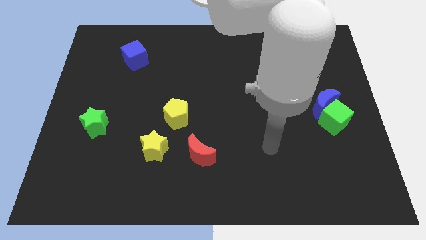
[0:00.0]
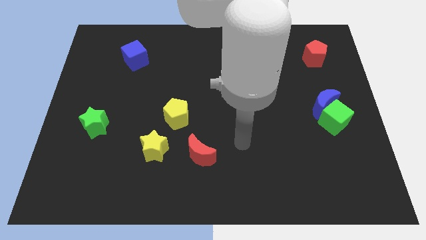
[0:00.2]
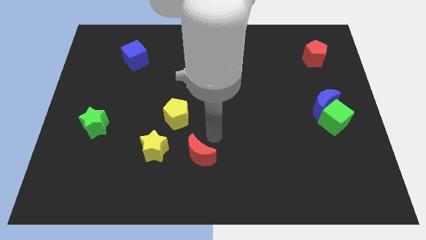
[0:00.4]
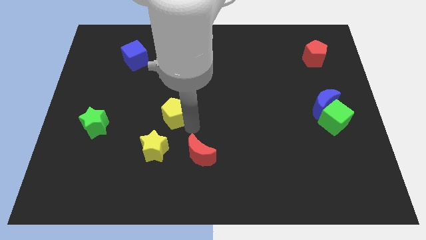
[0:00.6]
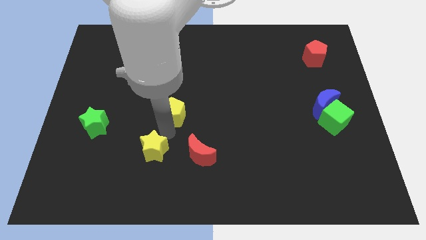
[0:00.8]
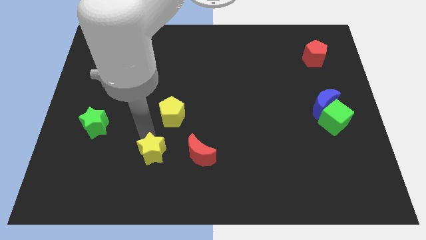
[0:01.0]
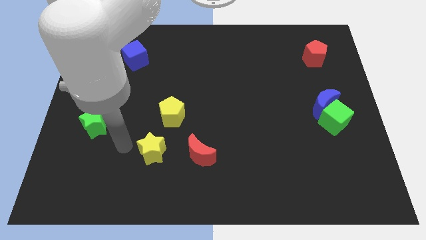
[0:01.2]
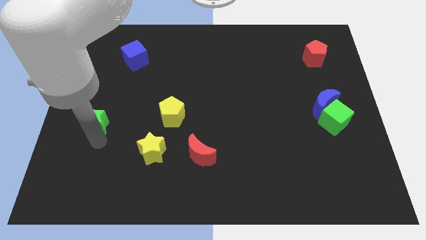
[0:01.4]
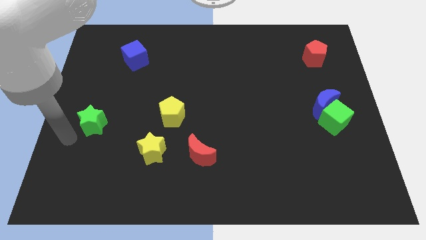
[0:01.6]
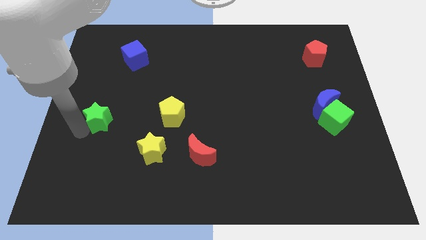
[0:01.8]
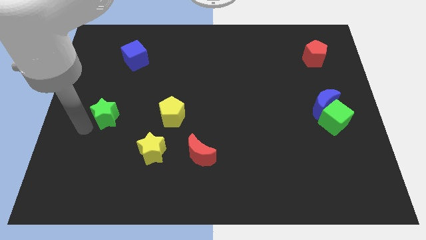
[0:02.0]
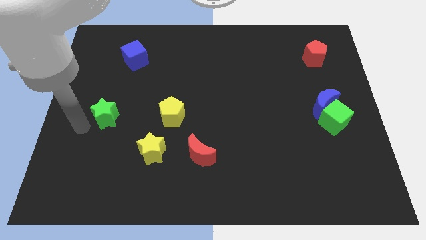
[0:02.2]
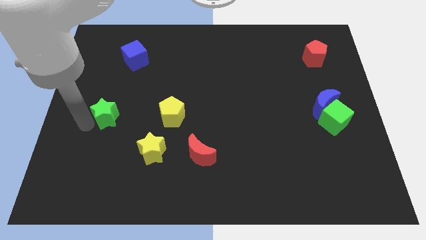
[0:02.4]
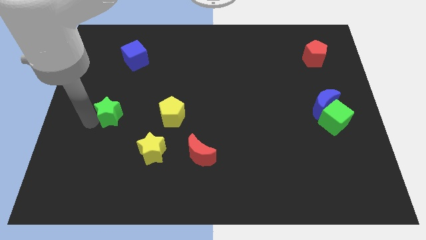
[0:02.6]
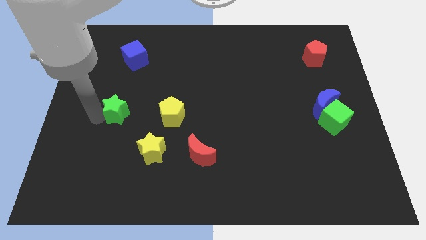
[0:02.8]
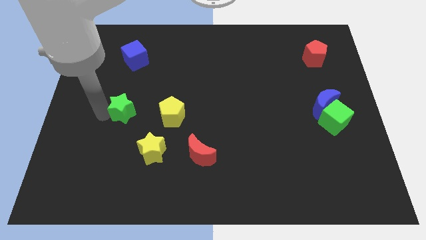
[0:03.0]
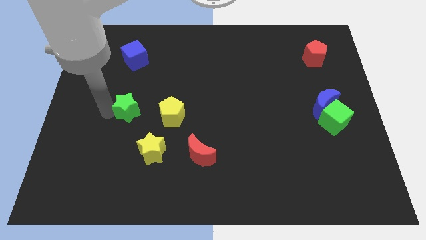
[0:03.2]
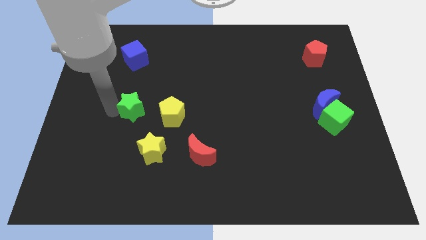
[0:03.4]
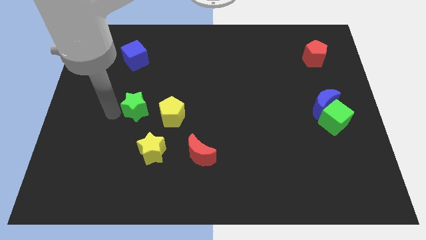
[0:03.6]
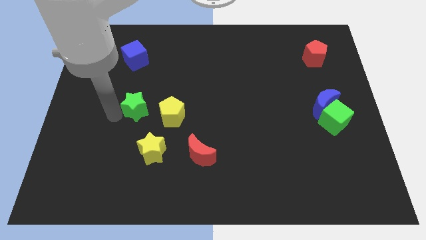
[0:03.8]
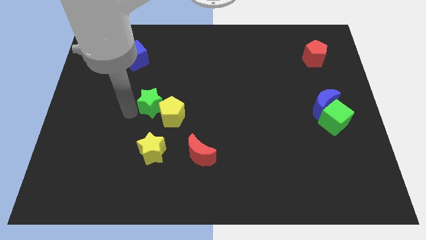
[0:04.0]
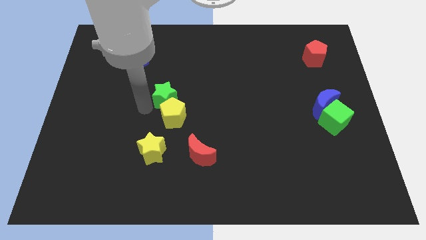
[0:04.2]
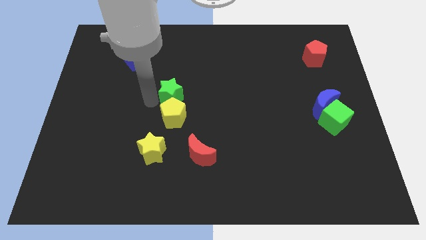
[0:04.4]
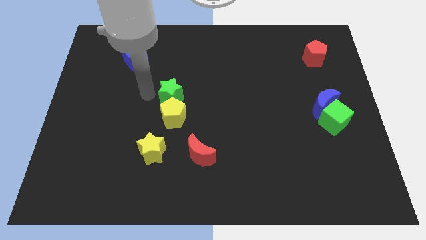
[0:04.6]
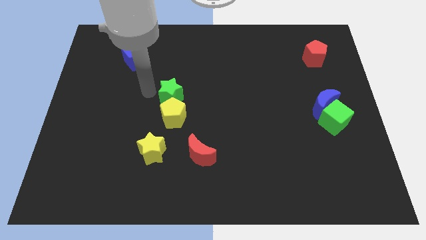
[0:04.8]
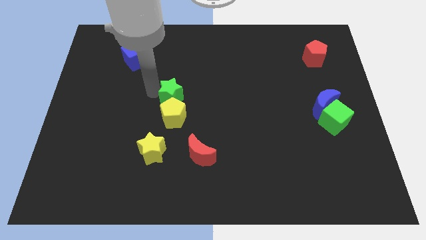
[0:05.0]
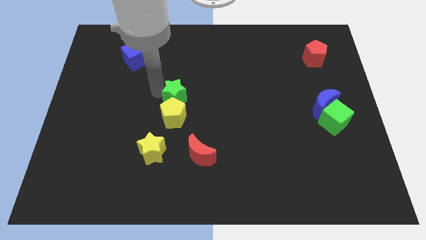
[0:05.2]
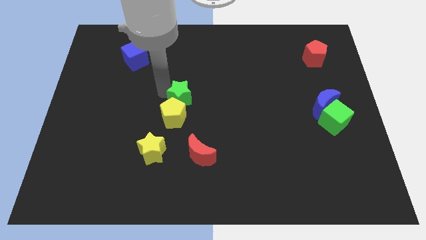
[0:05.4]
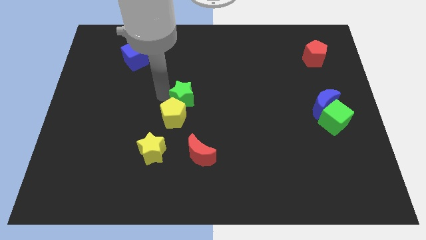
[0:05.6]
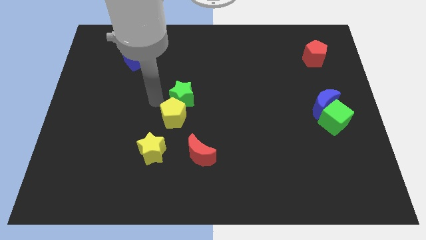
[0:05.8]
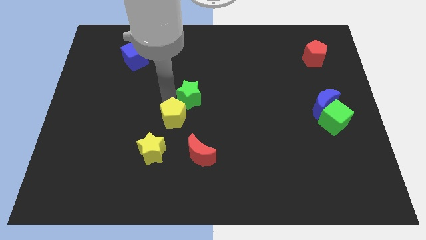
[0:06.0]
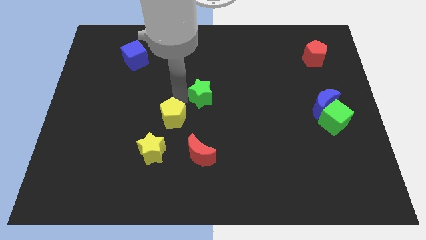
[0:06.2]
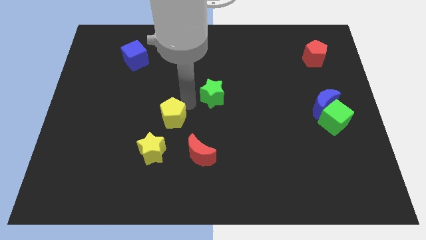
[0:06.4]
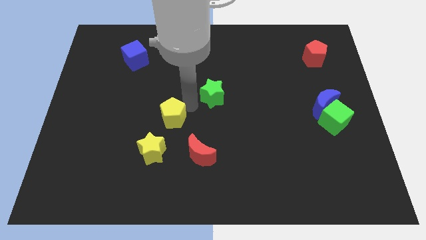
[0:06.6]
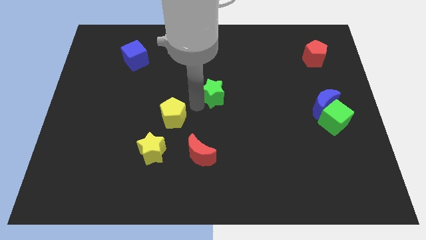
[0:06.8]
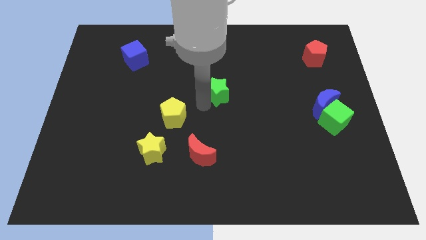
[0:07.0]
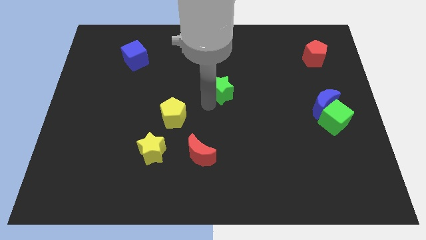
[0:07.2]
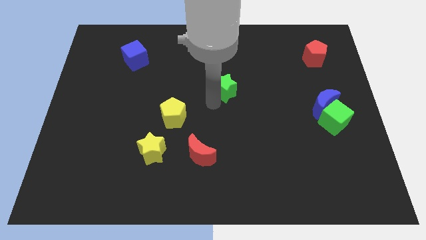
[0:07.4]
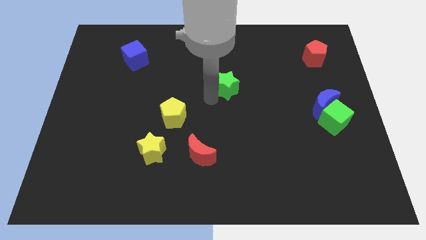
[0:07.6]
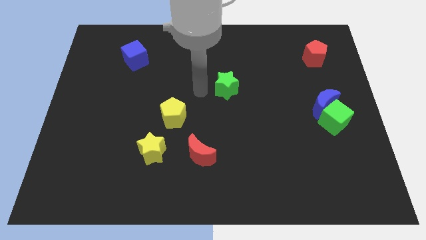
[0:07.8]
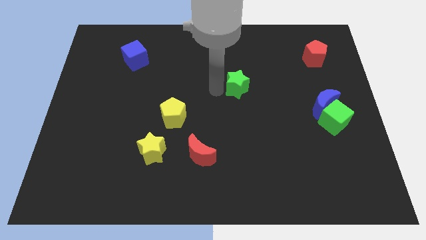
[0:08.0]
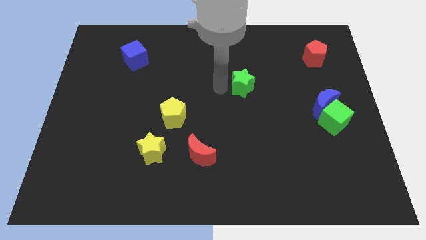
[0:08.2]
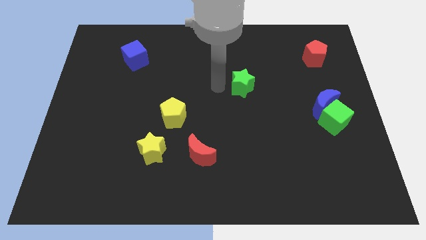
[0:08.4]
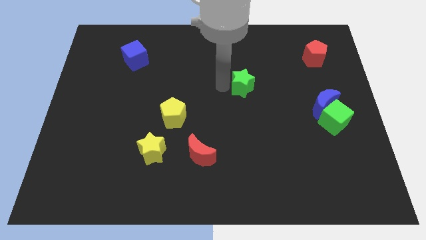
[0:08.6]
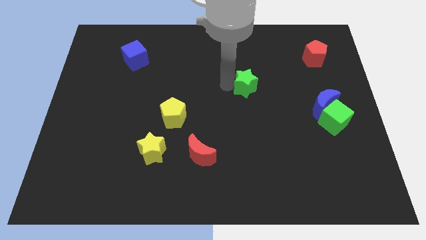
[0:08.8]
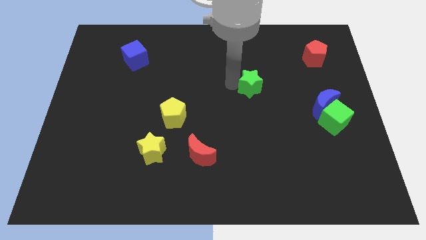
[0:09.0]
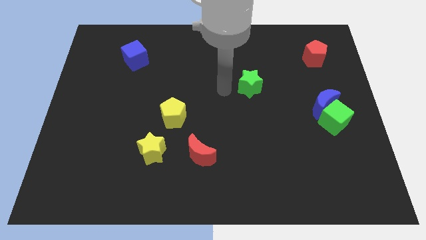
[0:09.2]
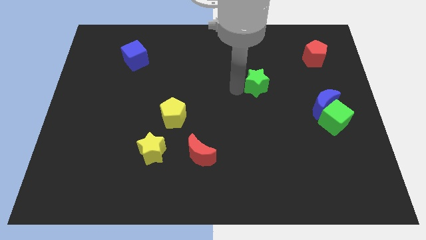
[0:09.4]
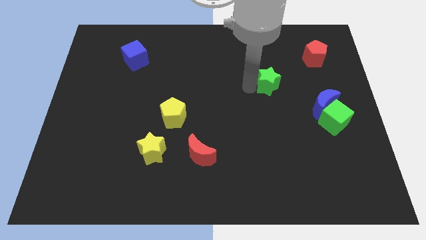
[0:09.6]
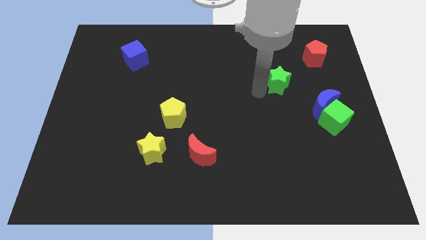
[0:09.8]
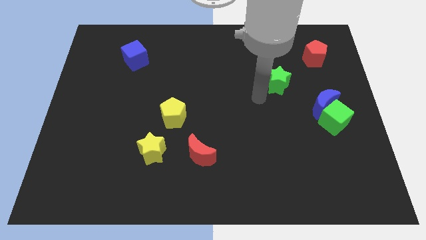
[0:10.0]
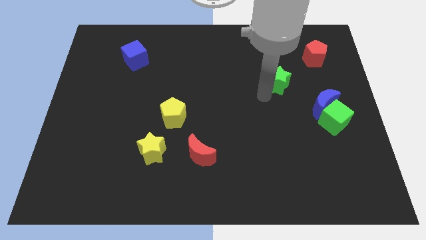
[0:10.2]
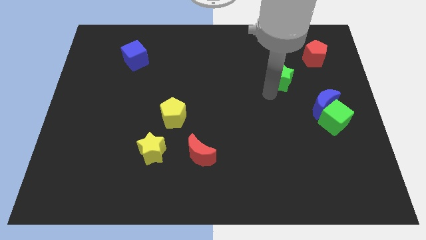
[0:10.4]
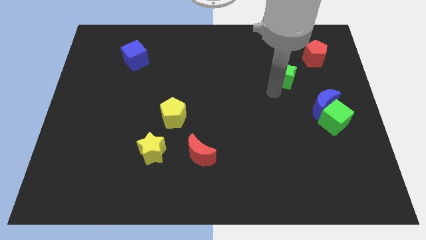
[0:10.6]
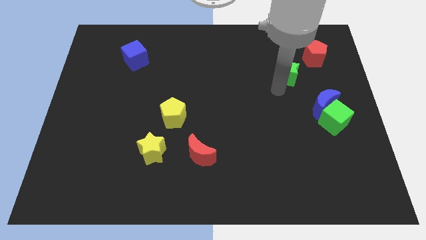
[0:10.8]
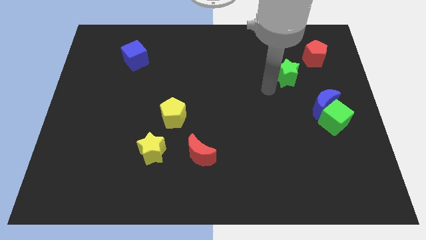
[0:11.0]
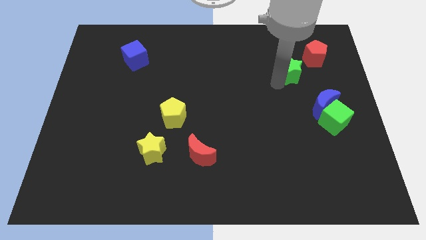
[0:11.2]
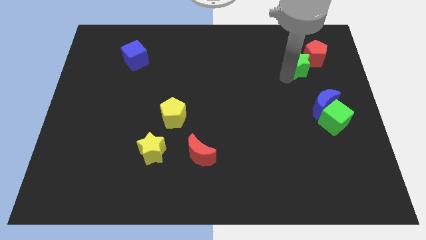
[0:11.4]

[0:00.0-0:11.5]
push the green star next to the red pentagon

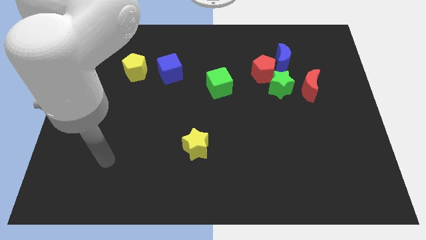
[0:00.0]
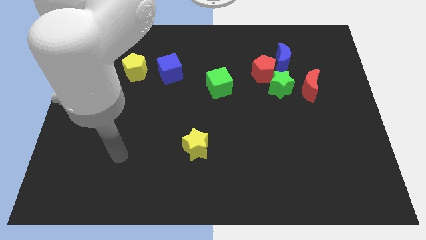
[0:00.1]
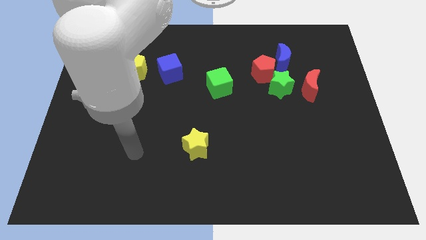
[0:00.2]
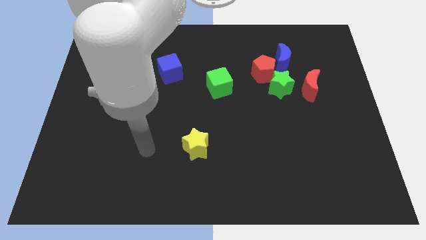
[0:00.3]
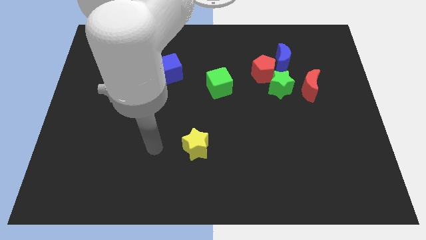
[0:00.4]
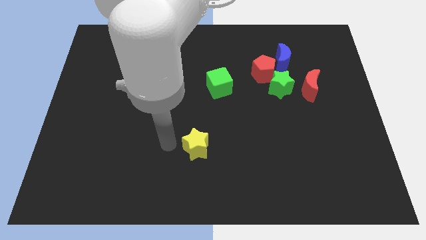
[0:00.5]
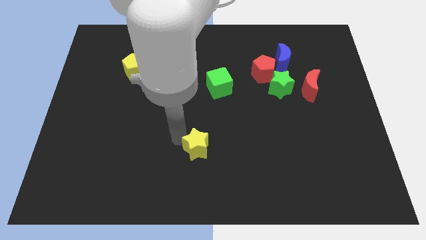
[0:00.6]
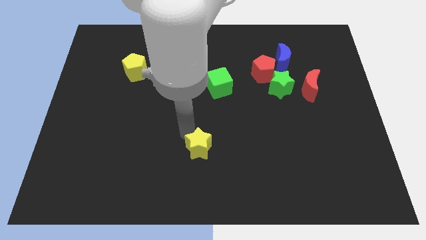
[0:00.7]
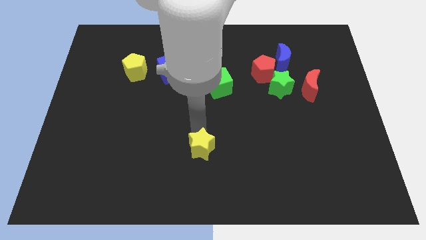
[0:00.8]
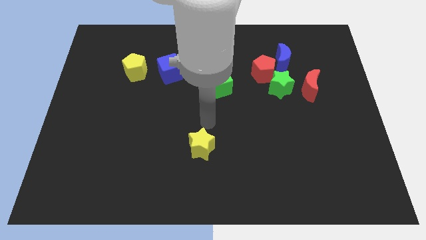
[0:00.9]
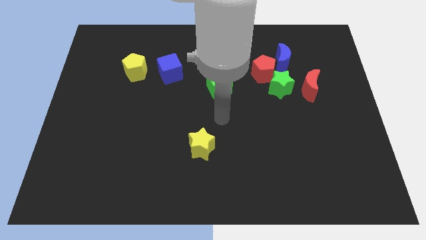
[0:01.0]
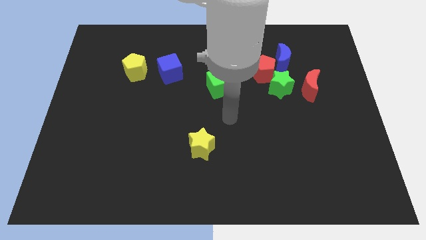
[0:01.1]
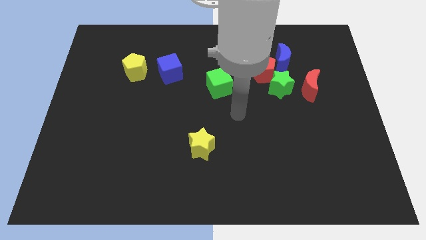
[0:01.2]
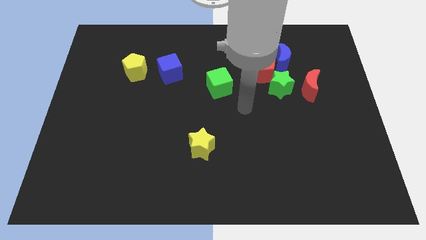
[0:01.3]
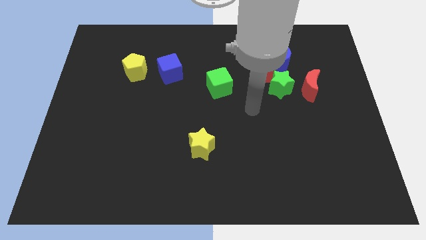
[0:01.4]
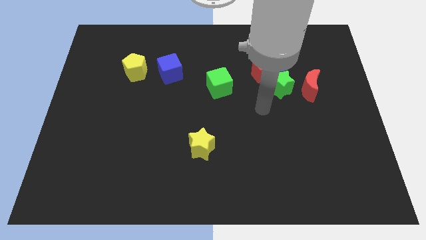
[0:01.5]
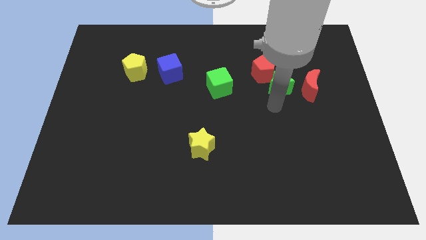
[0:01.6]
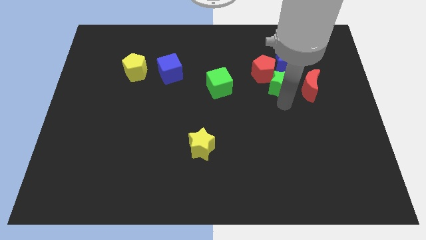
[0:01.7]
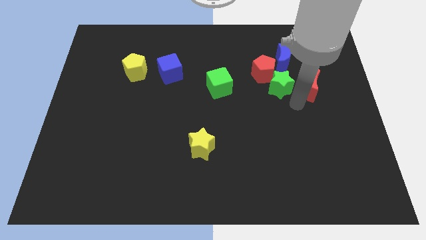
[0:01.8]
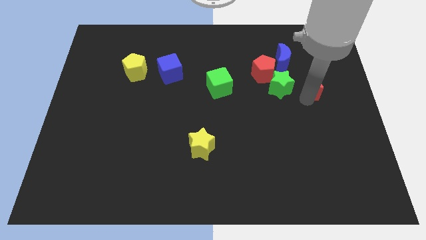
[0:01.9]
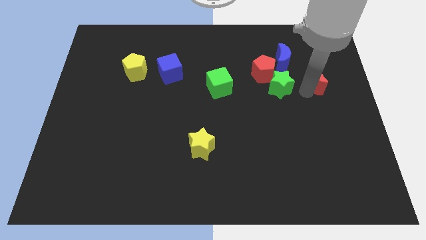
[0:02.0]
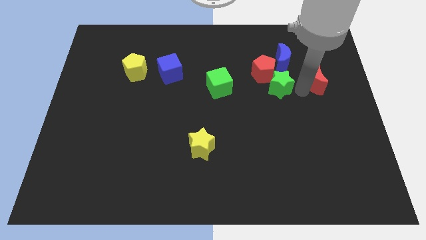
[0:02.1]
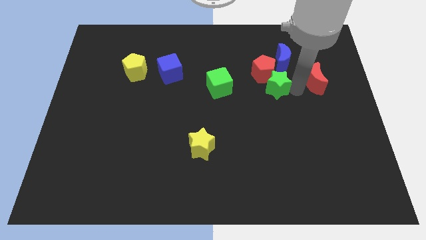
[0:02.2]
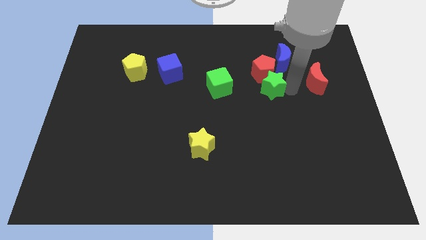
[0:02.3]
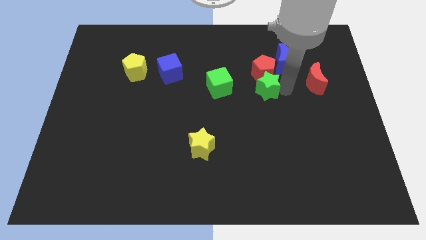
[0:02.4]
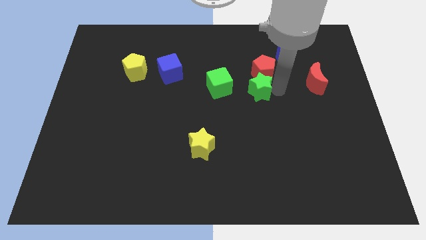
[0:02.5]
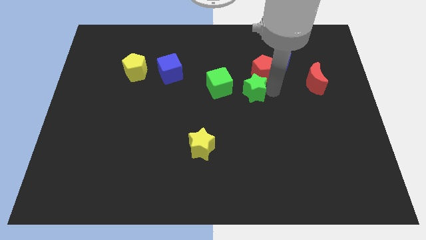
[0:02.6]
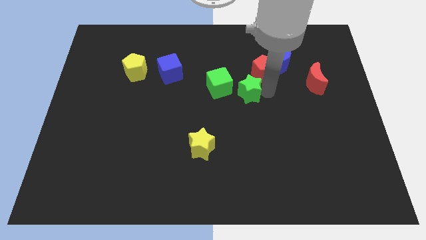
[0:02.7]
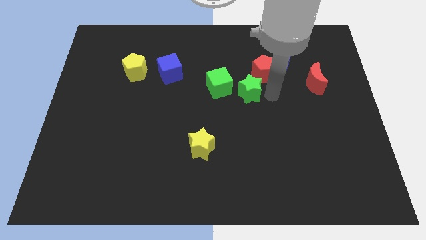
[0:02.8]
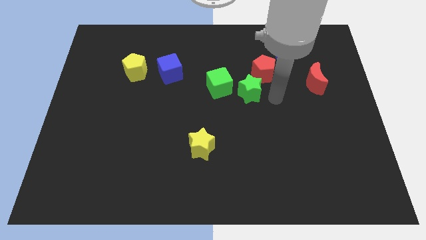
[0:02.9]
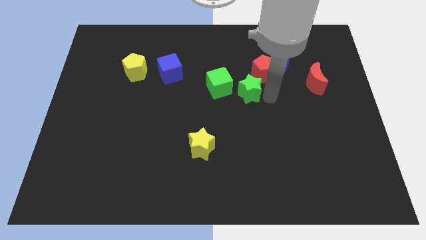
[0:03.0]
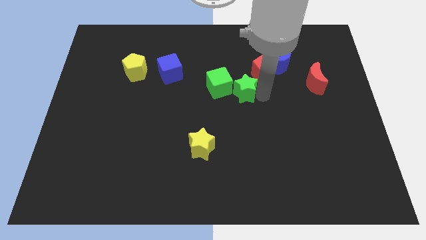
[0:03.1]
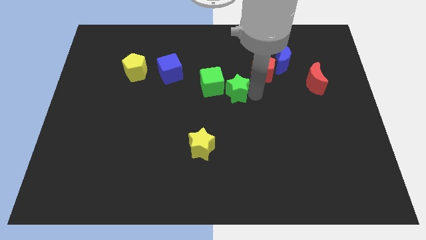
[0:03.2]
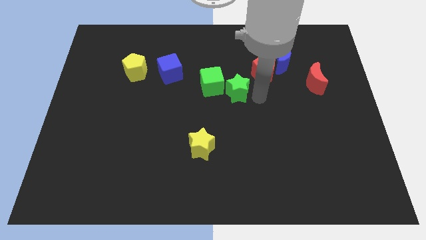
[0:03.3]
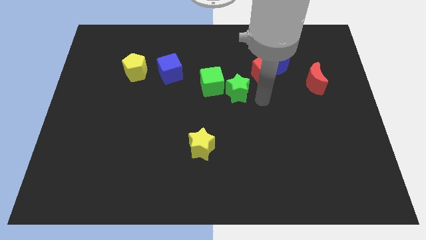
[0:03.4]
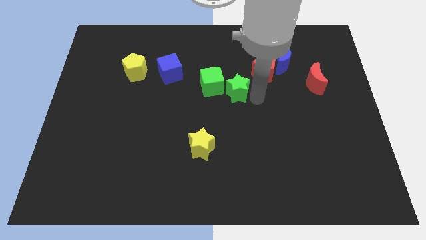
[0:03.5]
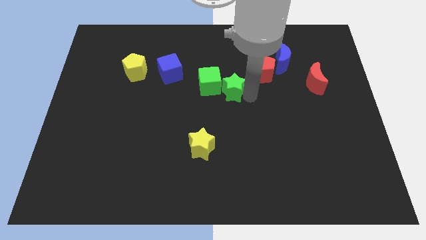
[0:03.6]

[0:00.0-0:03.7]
move the green star close to the green cube
